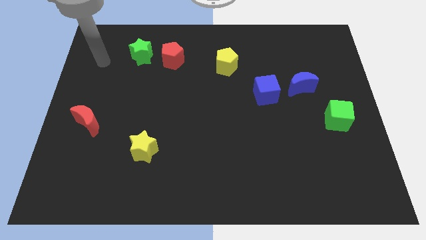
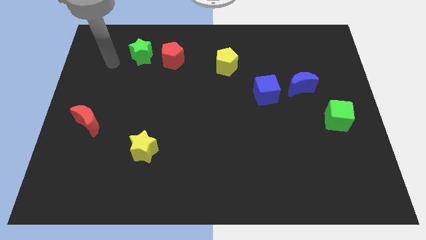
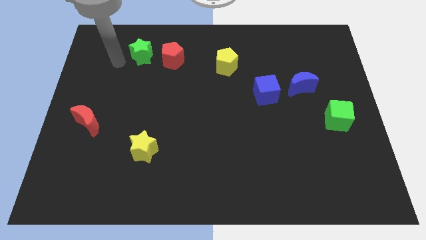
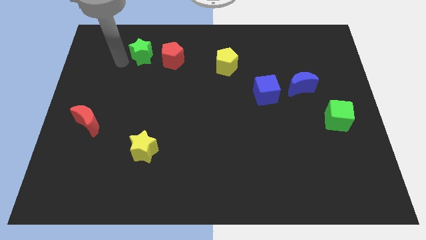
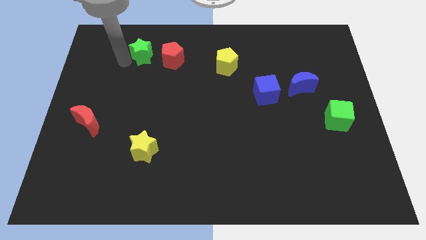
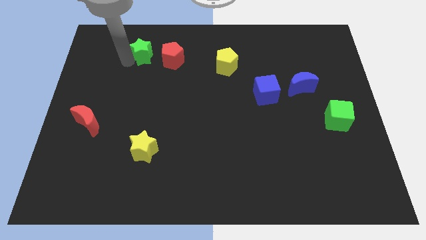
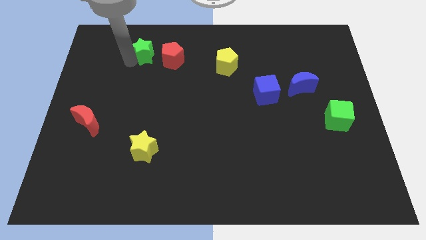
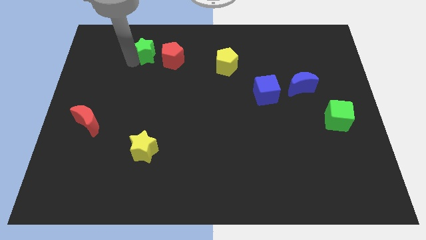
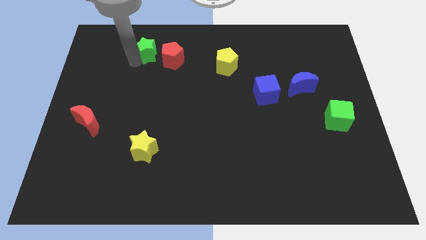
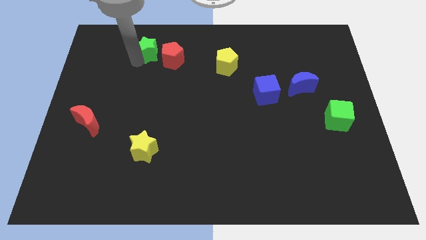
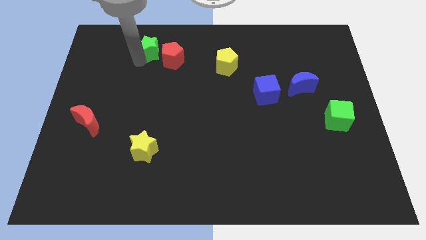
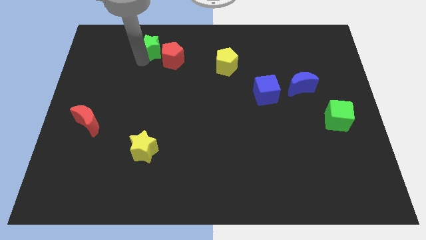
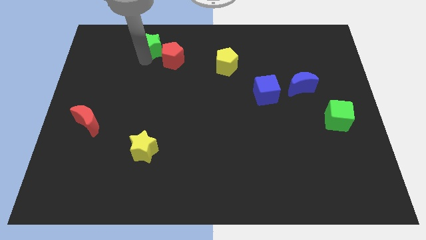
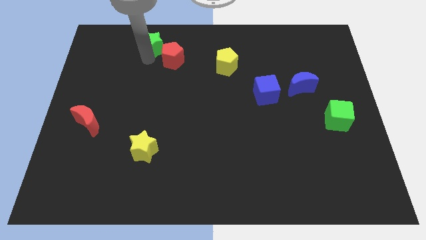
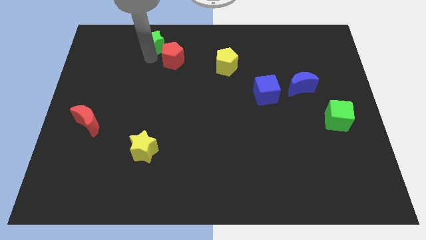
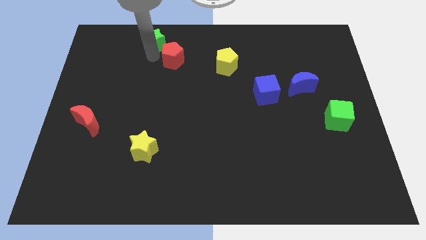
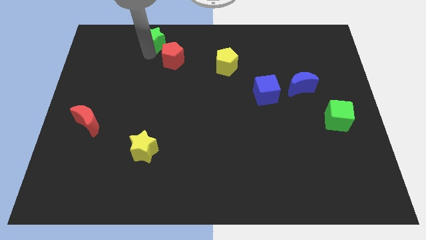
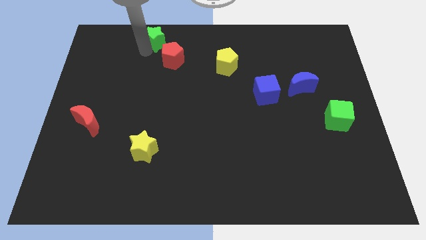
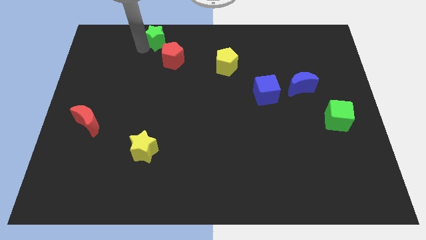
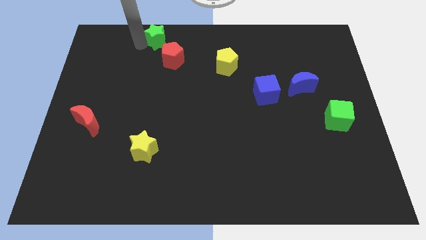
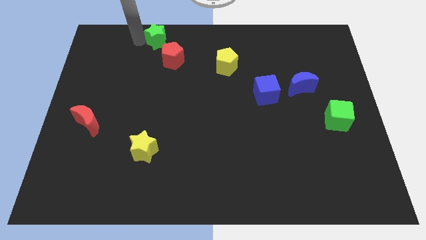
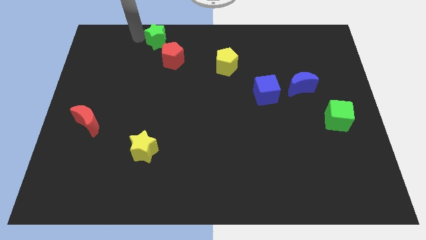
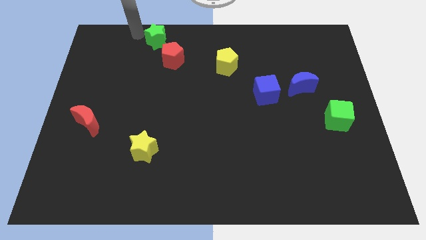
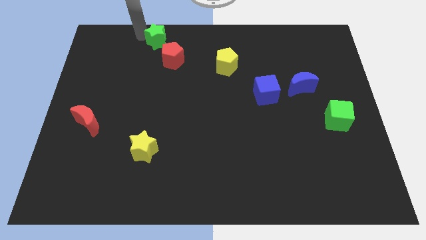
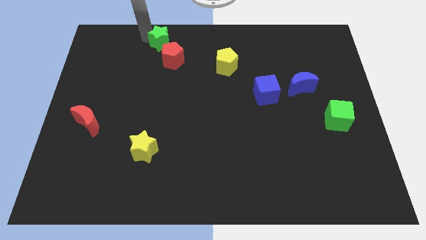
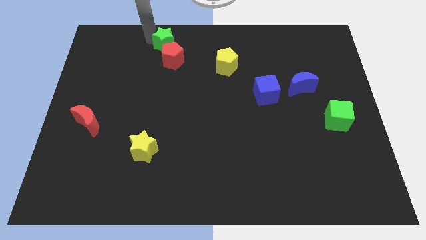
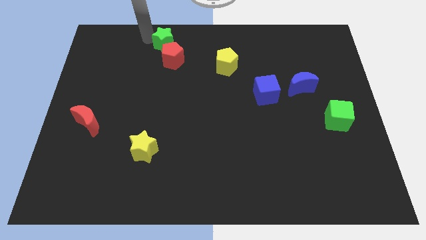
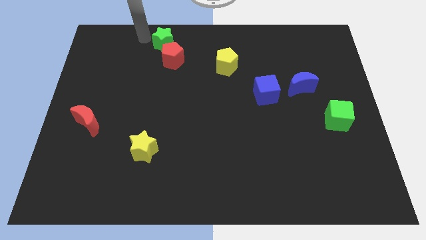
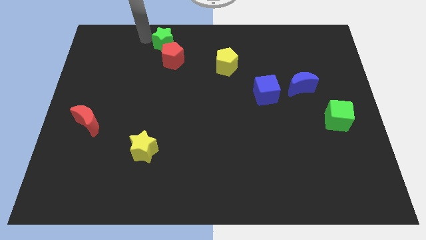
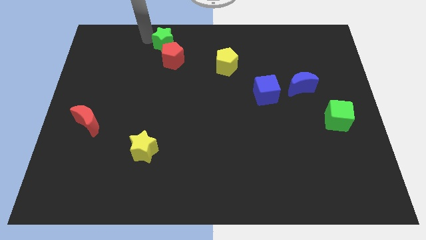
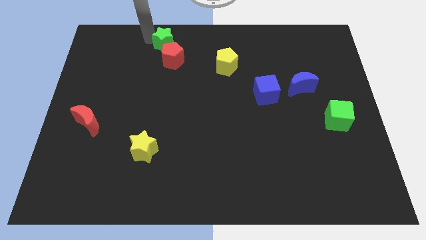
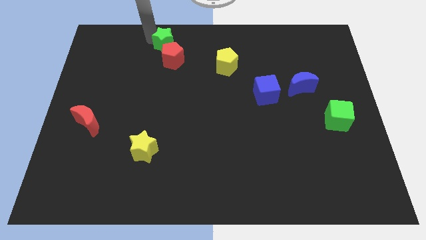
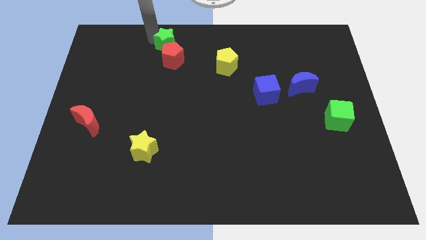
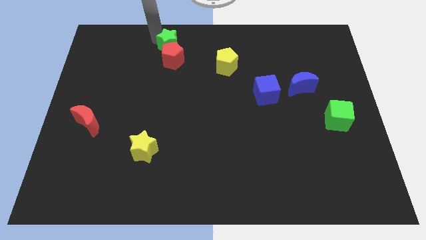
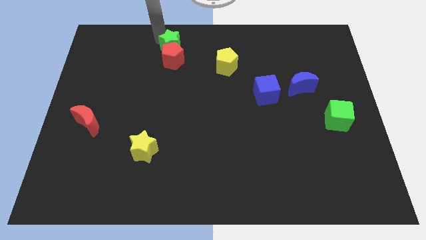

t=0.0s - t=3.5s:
push the green star a little bit to the right

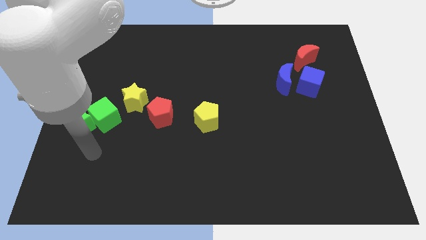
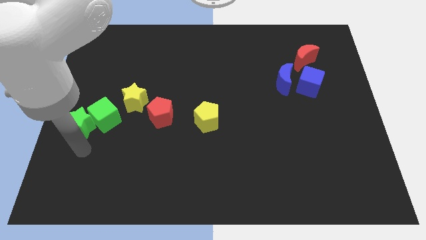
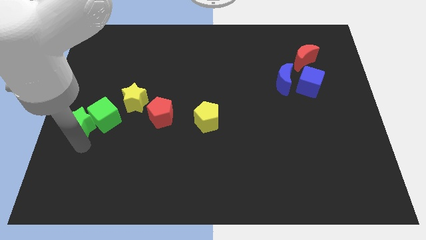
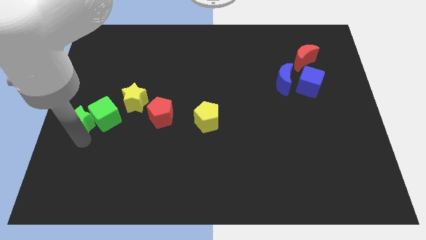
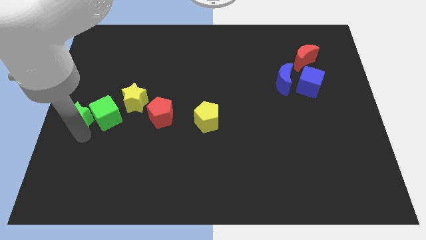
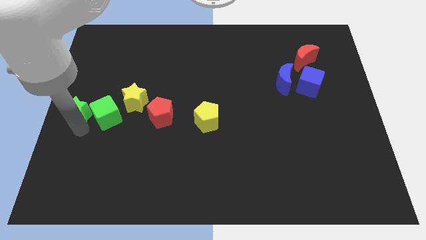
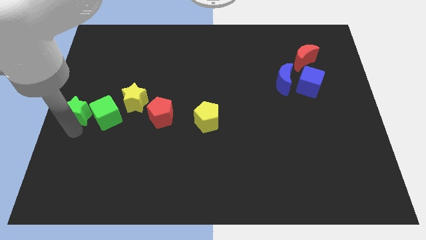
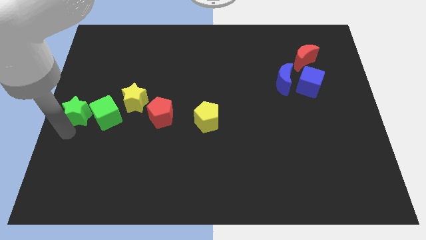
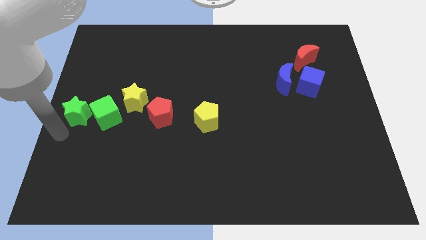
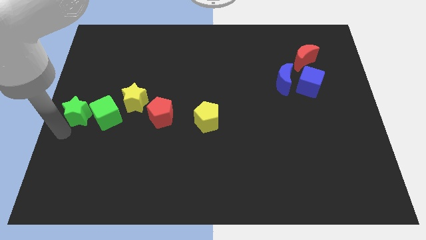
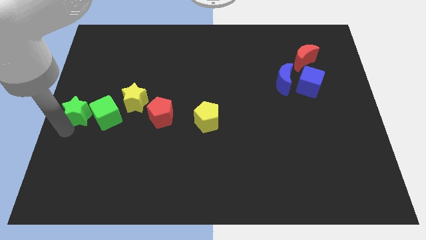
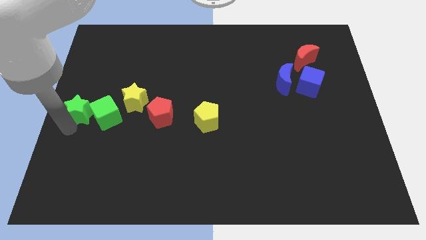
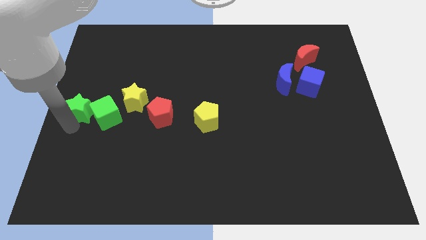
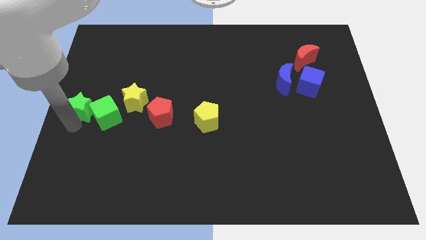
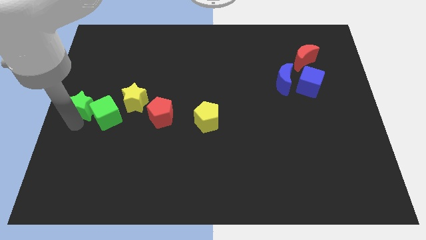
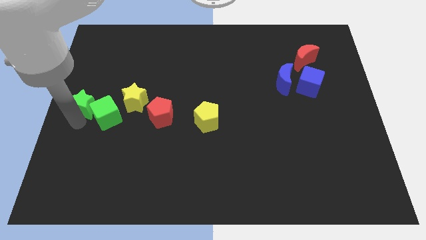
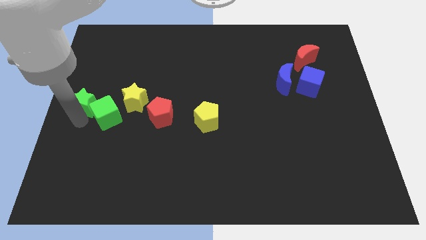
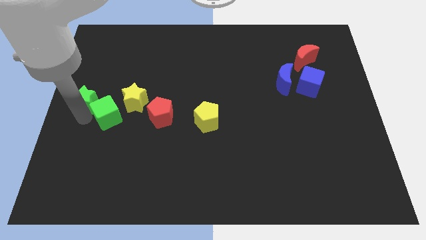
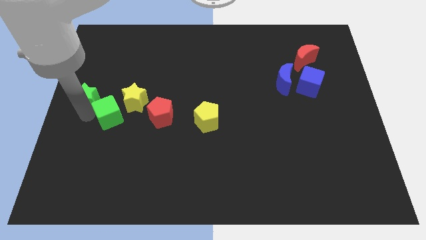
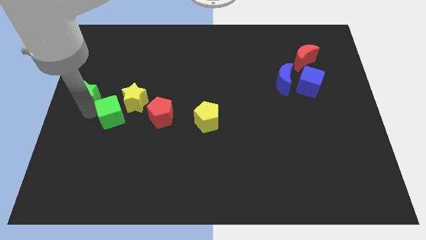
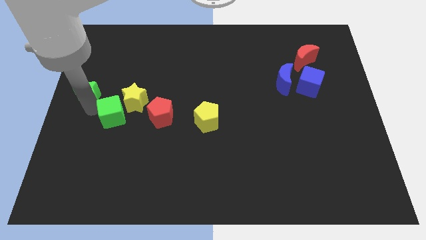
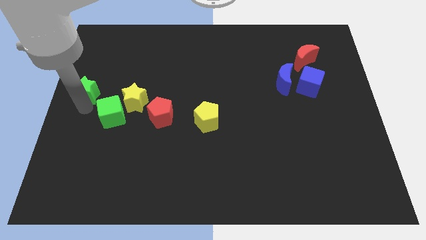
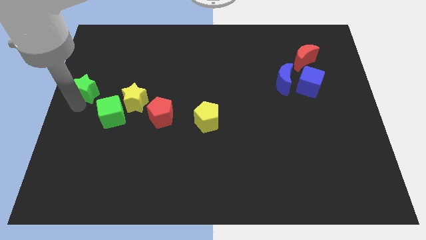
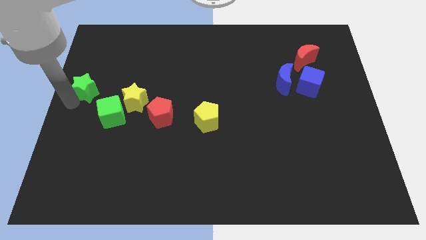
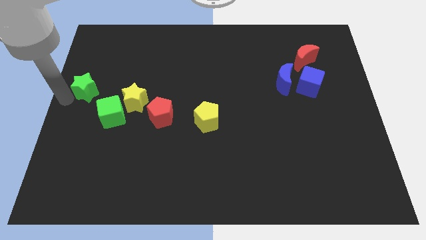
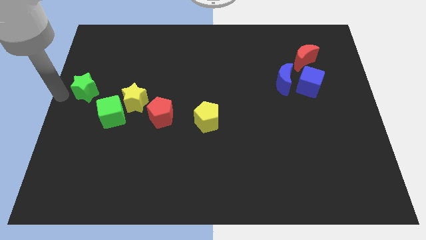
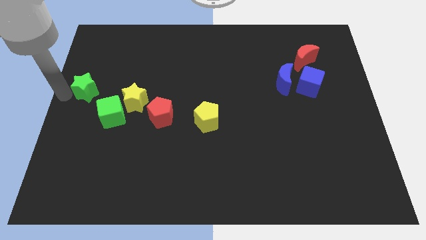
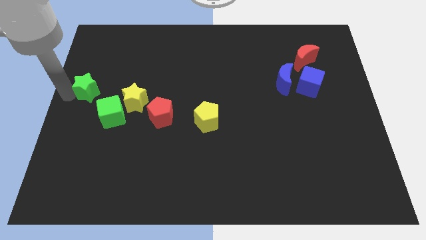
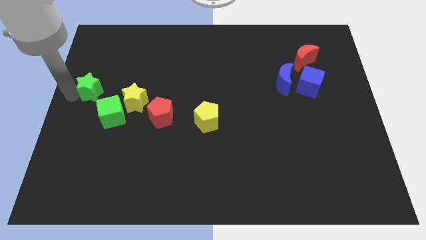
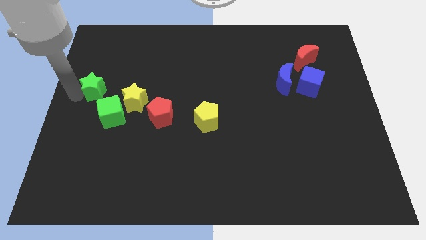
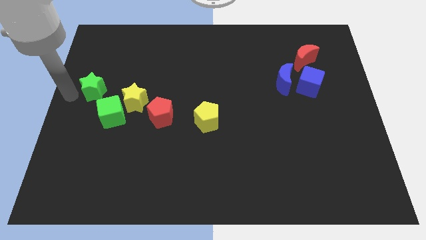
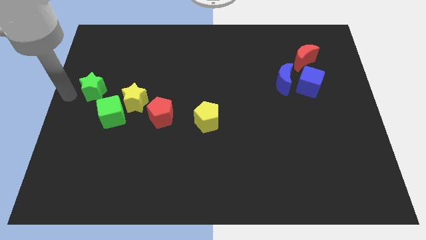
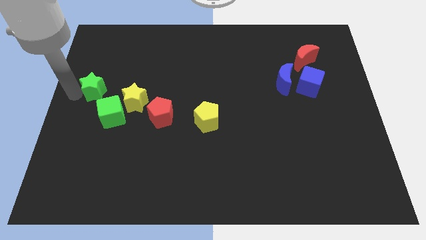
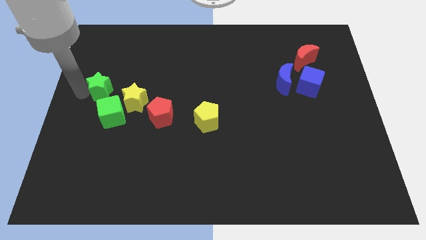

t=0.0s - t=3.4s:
move the green star diagonally up and right slightly

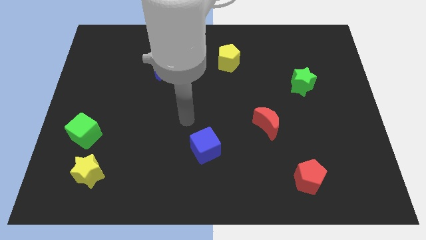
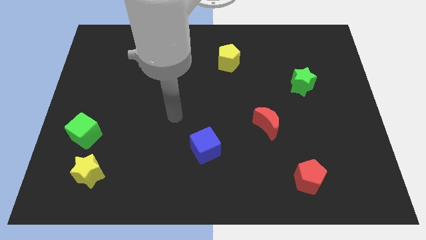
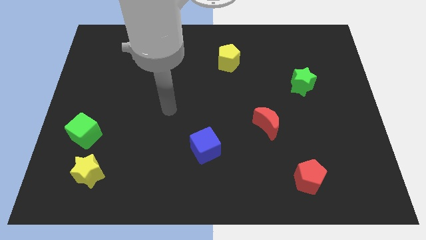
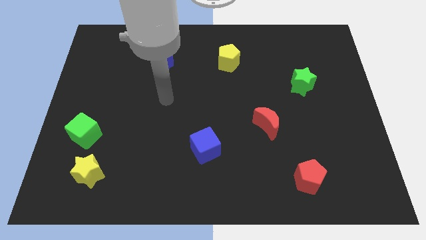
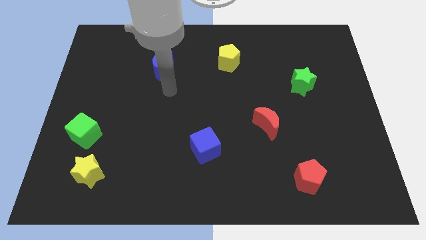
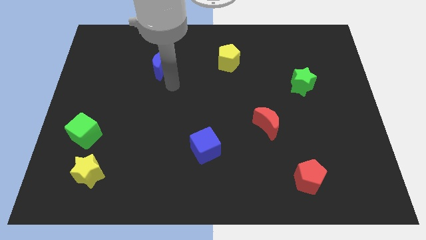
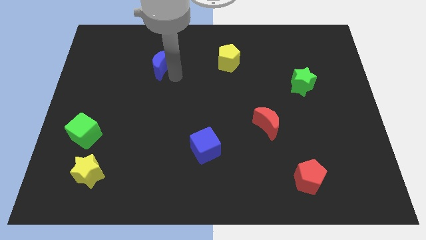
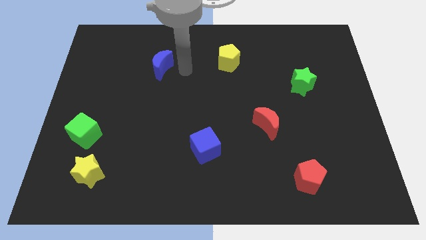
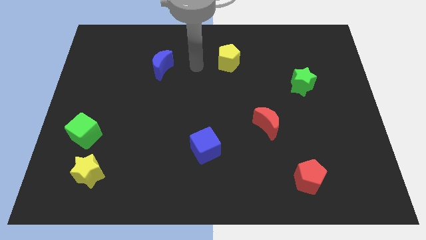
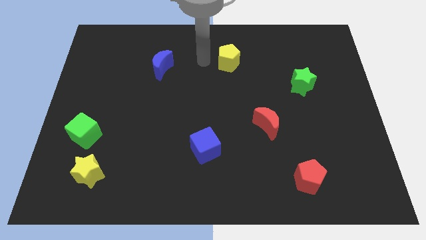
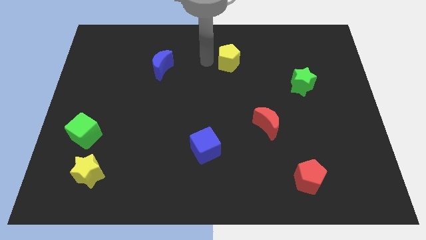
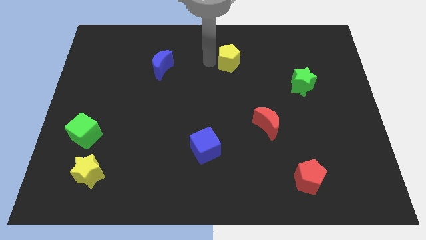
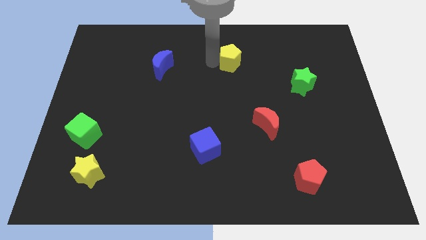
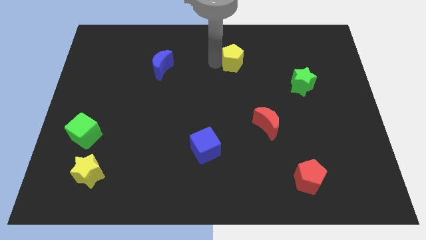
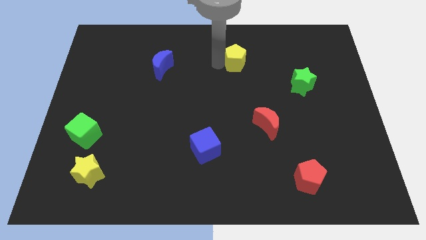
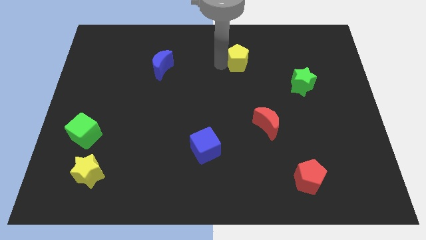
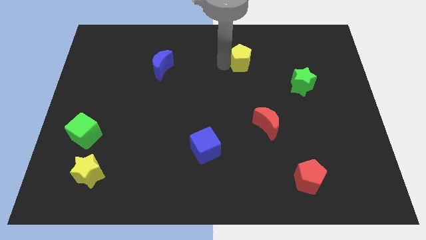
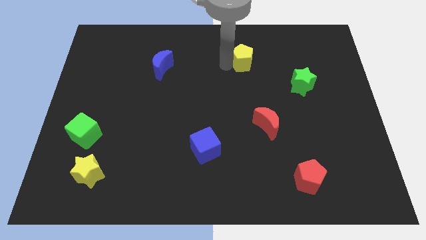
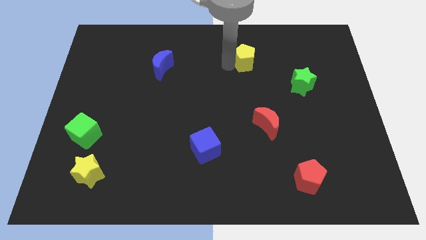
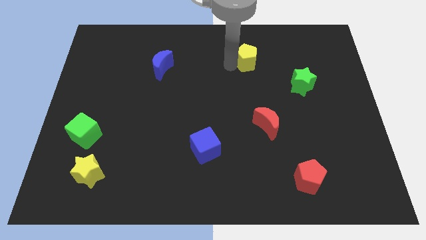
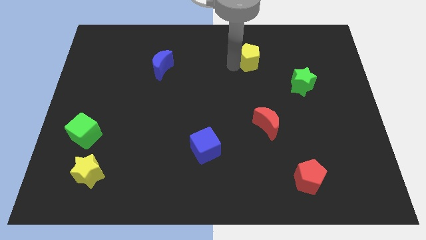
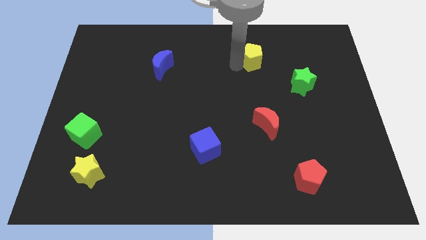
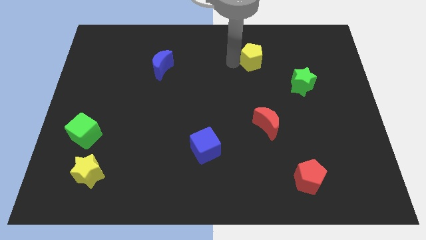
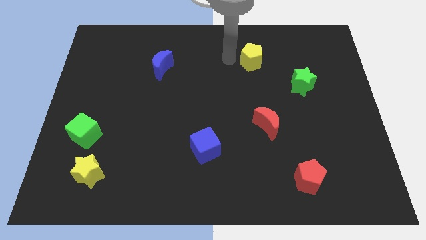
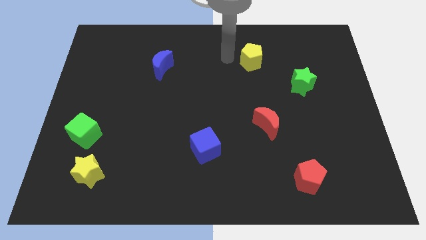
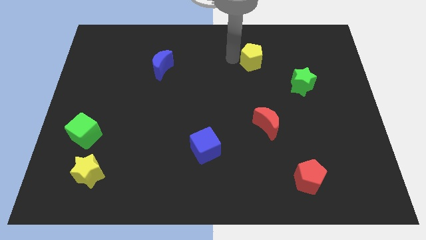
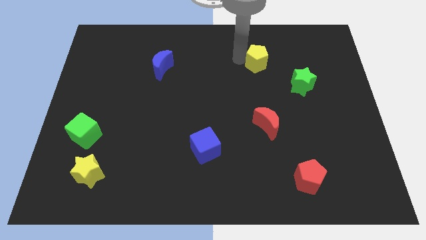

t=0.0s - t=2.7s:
move the yellow pentagon right somewhat
